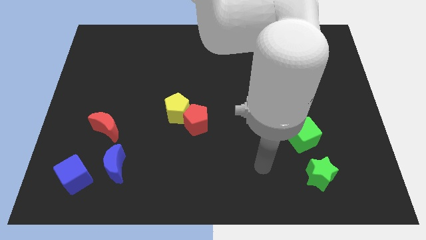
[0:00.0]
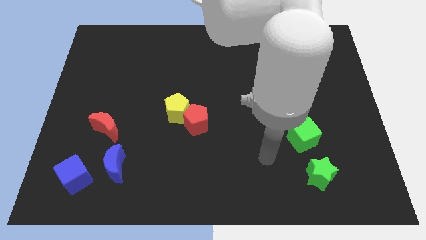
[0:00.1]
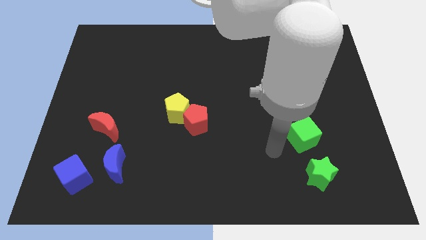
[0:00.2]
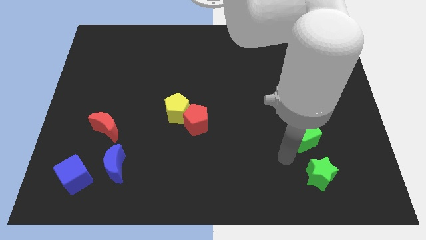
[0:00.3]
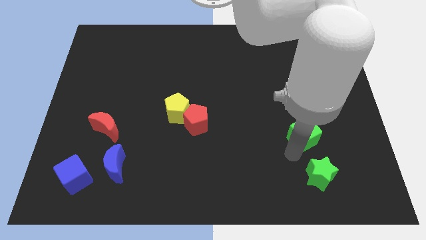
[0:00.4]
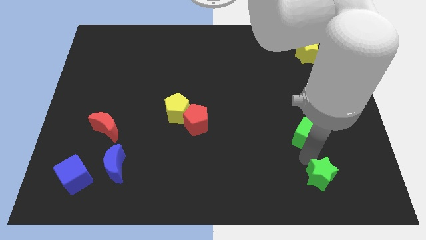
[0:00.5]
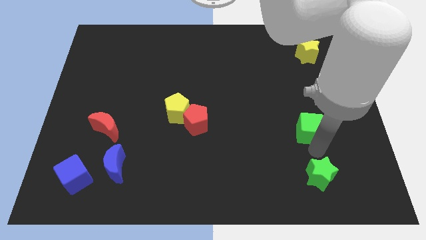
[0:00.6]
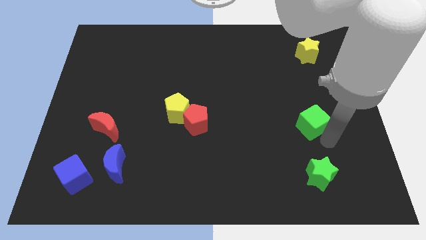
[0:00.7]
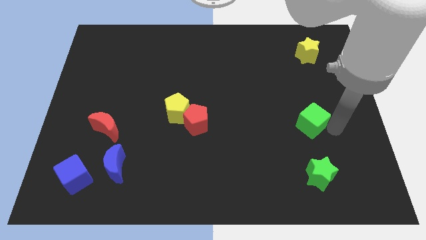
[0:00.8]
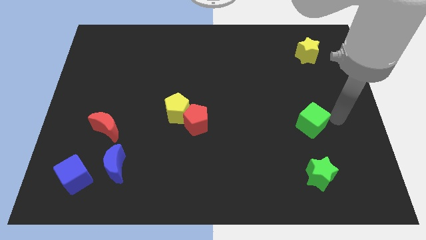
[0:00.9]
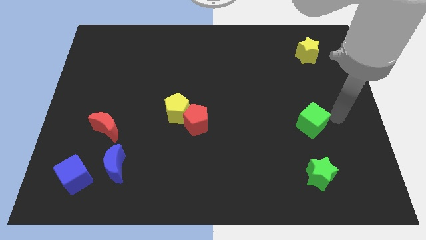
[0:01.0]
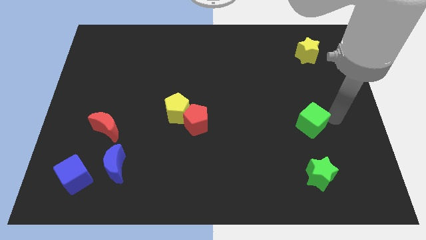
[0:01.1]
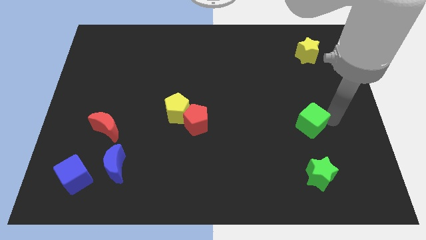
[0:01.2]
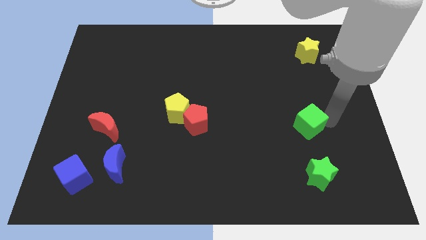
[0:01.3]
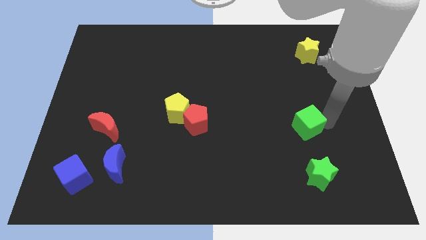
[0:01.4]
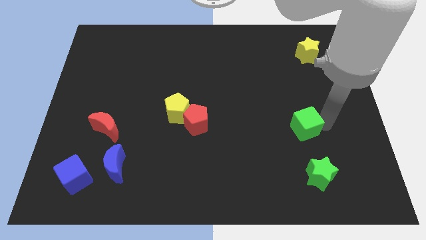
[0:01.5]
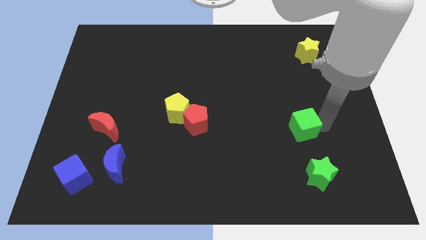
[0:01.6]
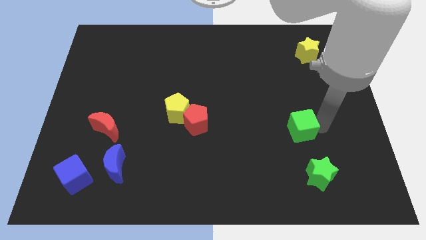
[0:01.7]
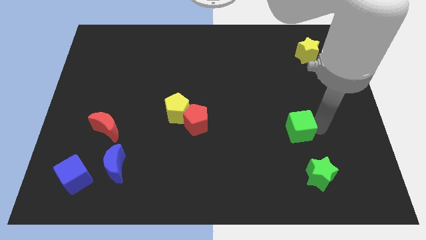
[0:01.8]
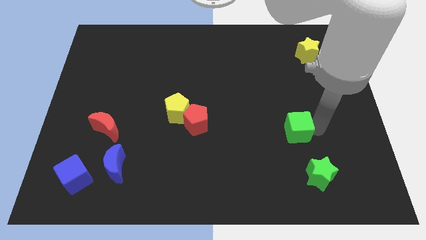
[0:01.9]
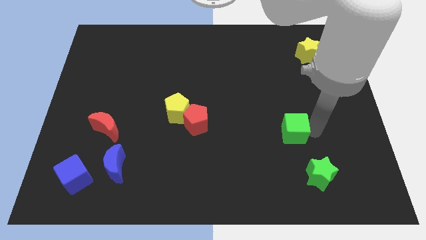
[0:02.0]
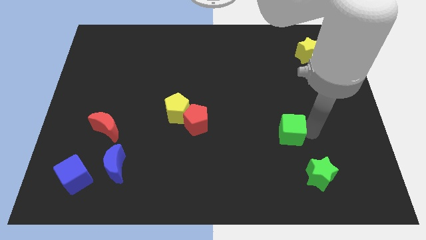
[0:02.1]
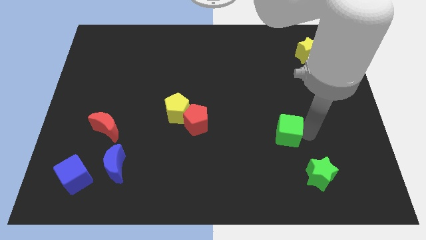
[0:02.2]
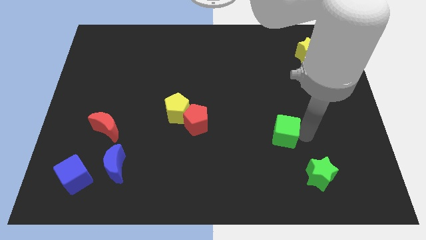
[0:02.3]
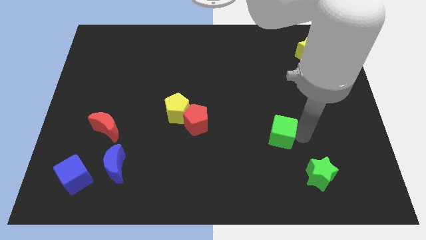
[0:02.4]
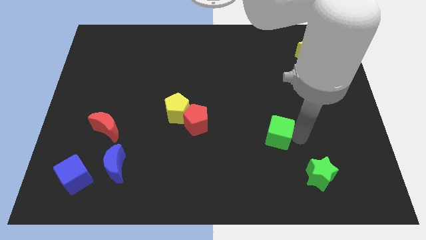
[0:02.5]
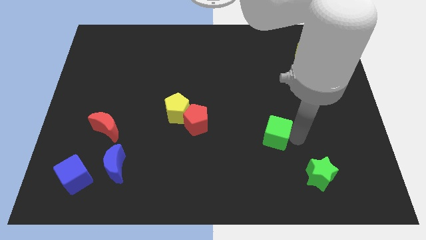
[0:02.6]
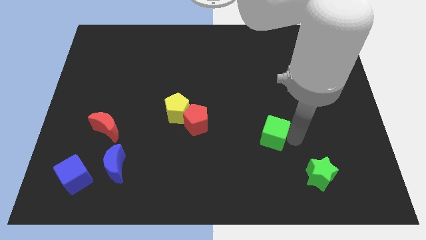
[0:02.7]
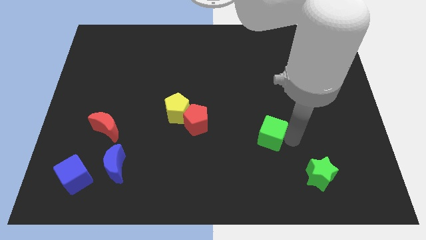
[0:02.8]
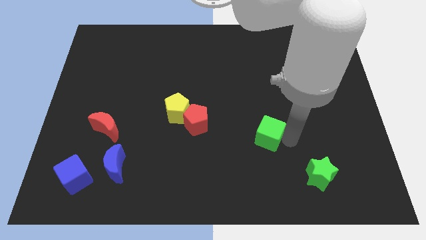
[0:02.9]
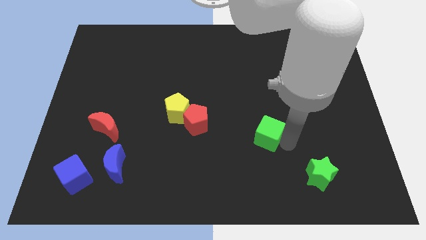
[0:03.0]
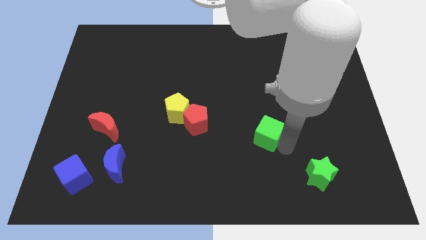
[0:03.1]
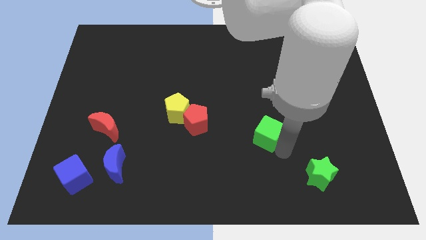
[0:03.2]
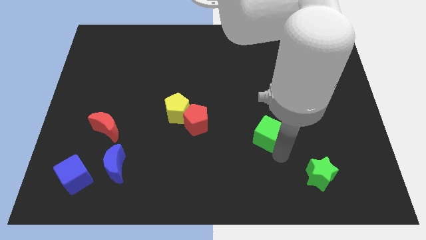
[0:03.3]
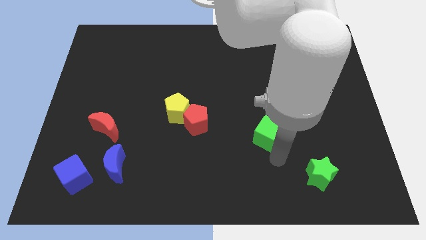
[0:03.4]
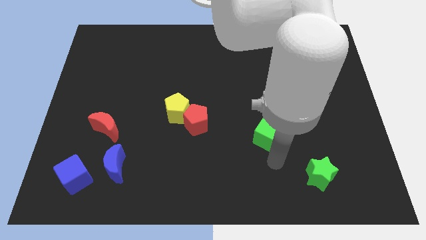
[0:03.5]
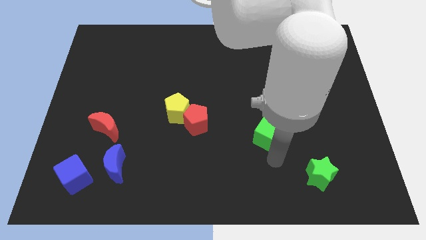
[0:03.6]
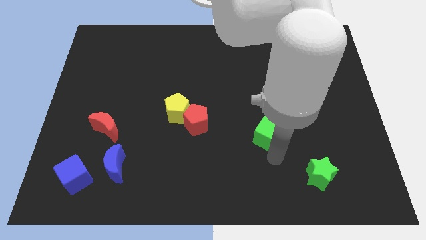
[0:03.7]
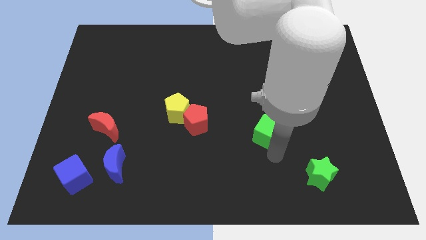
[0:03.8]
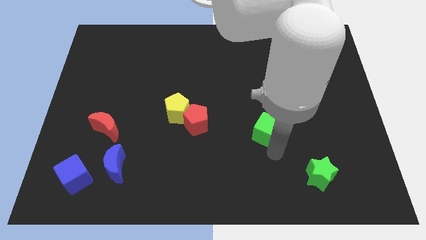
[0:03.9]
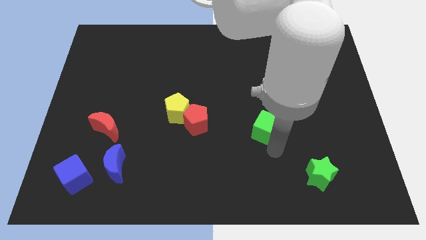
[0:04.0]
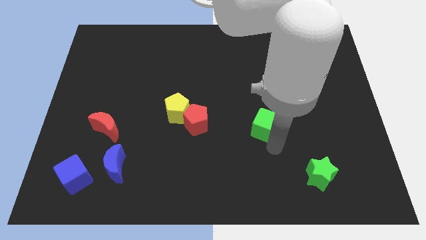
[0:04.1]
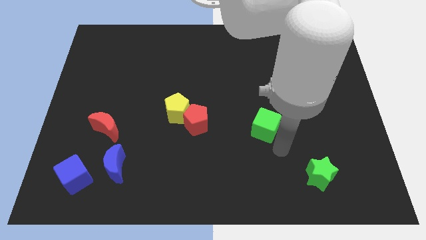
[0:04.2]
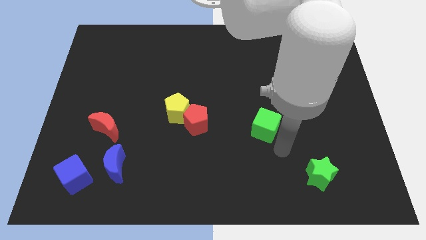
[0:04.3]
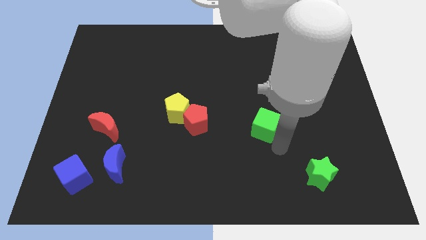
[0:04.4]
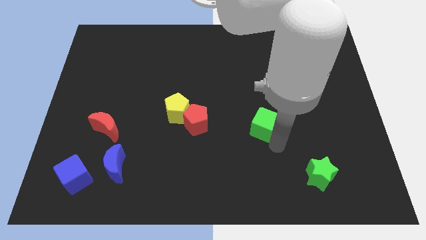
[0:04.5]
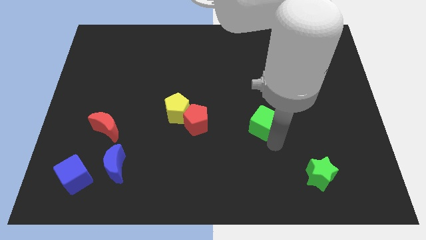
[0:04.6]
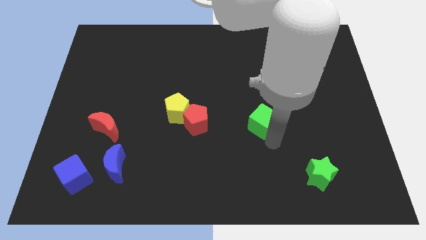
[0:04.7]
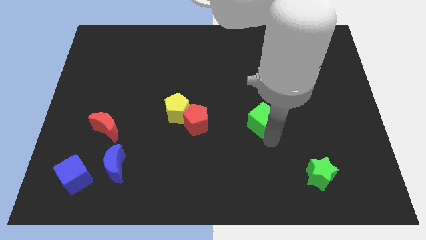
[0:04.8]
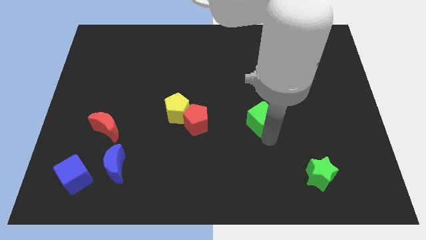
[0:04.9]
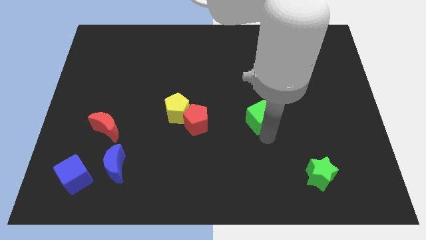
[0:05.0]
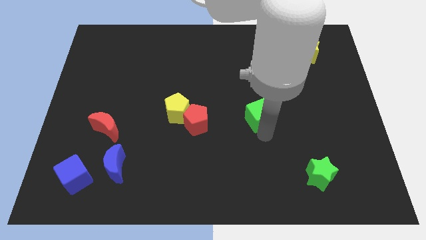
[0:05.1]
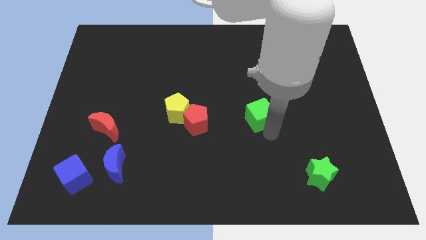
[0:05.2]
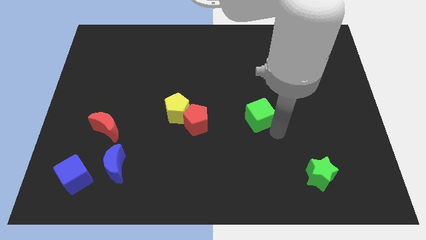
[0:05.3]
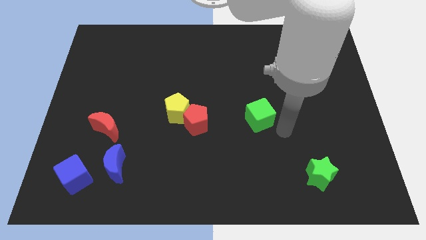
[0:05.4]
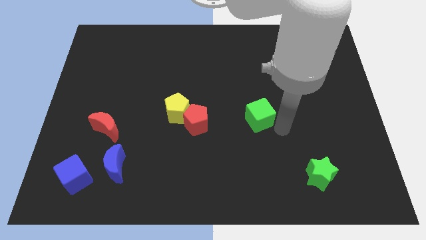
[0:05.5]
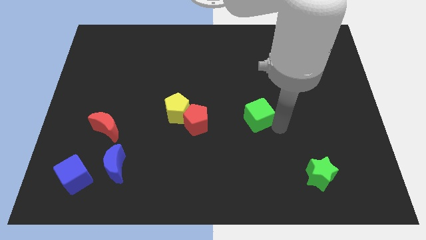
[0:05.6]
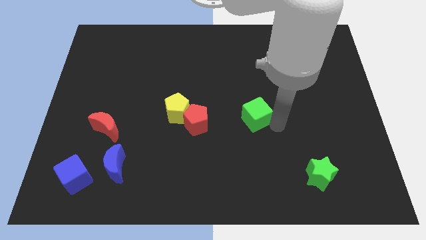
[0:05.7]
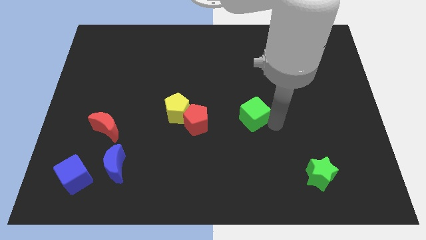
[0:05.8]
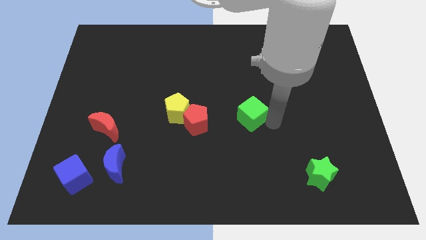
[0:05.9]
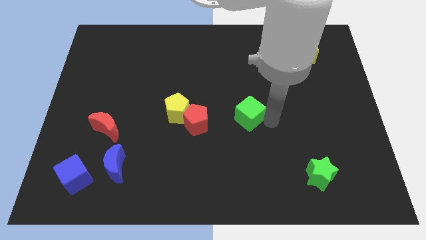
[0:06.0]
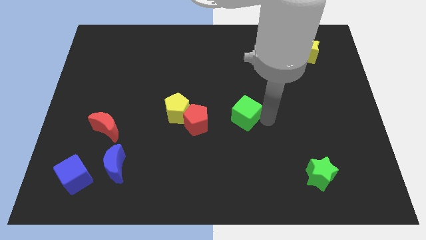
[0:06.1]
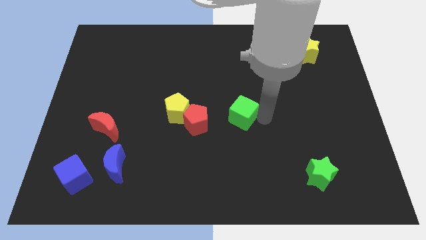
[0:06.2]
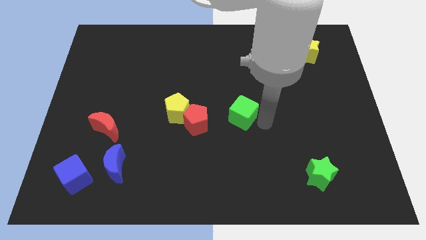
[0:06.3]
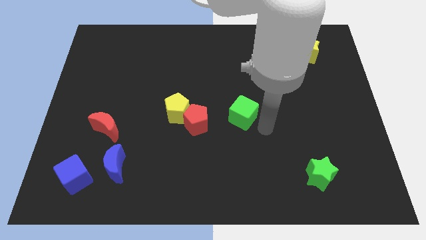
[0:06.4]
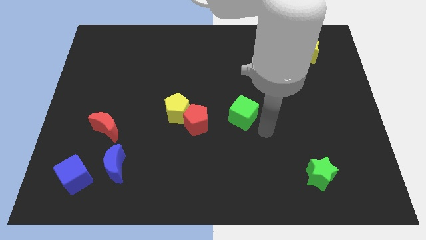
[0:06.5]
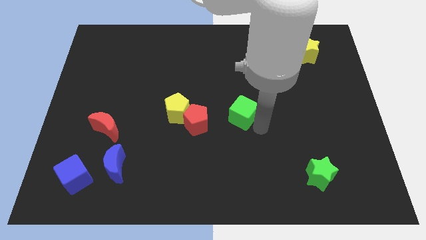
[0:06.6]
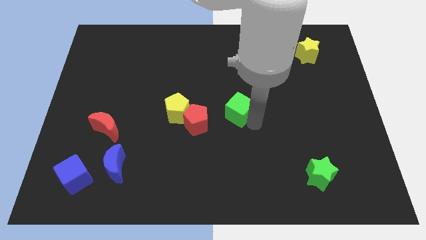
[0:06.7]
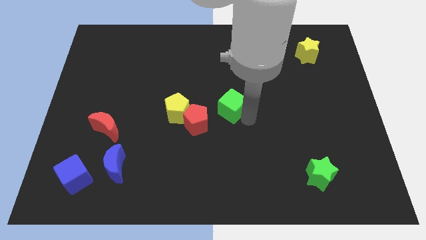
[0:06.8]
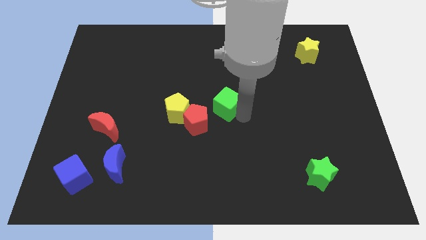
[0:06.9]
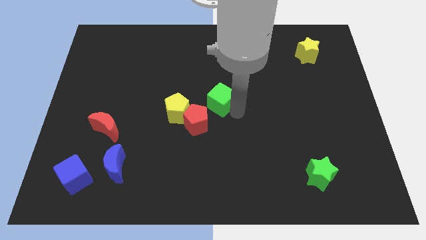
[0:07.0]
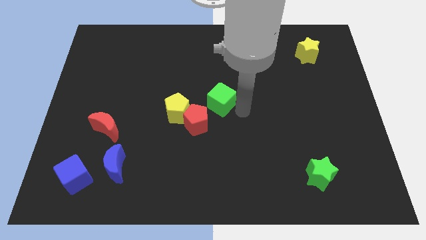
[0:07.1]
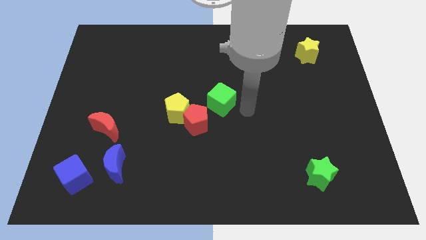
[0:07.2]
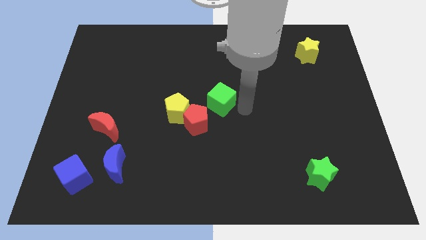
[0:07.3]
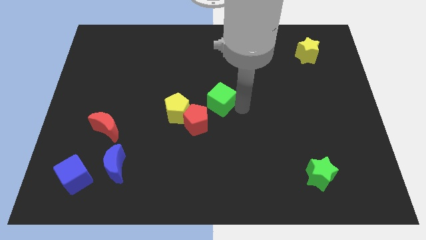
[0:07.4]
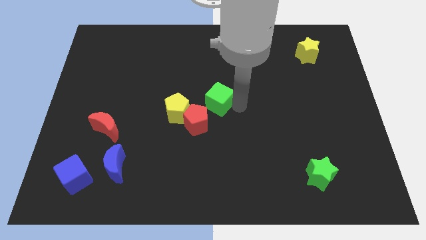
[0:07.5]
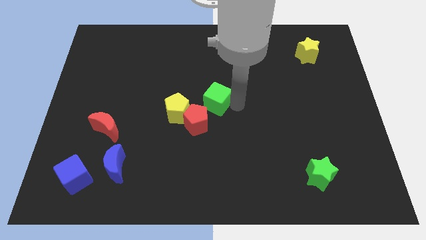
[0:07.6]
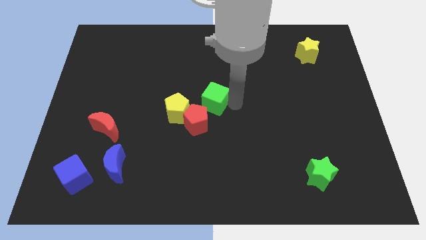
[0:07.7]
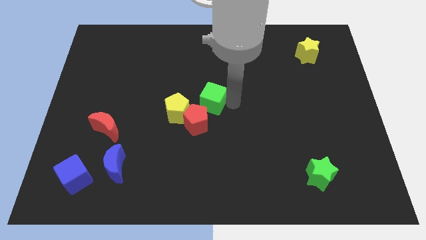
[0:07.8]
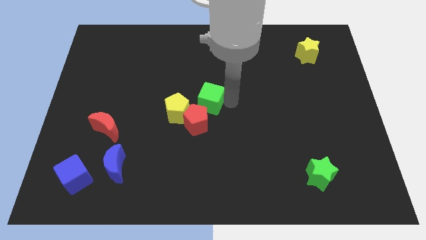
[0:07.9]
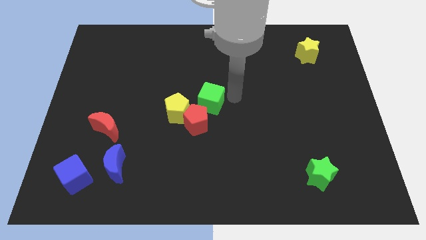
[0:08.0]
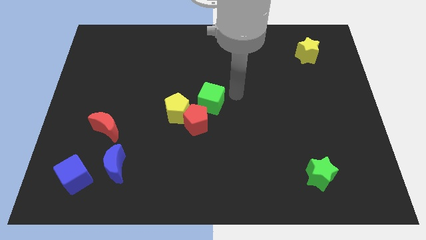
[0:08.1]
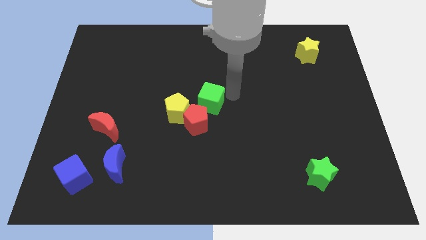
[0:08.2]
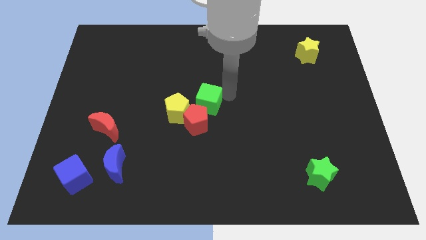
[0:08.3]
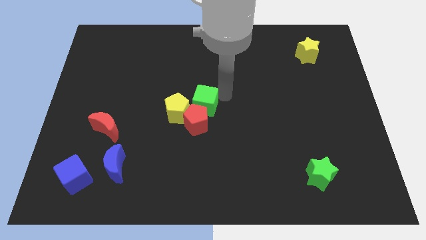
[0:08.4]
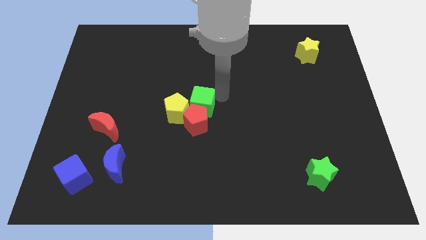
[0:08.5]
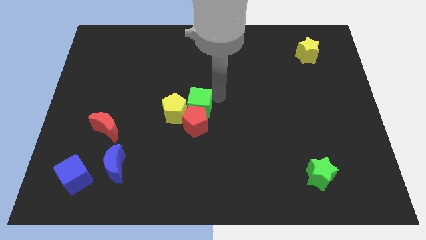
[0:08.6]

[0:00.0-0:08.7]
push the green cube close to the yellow pentagon
